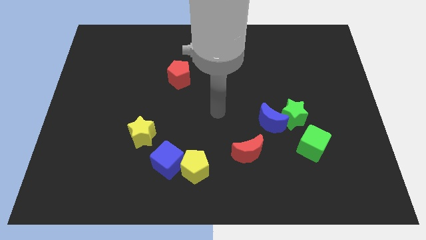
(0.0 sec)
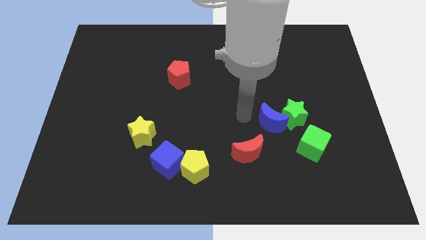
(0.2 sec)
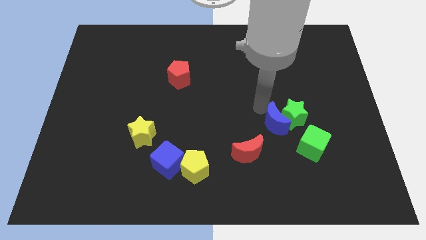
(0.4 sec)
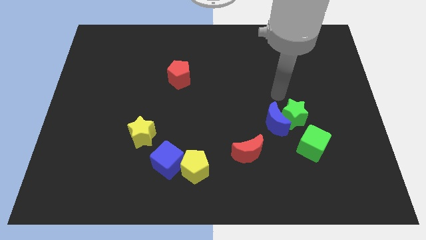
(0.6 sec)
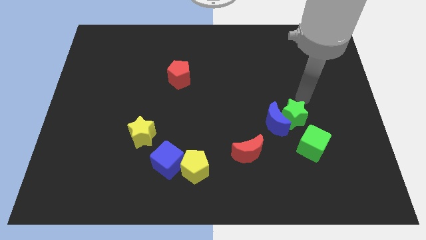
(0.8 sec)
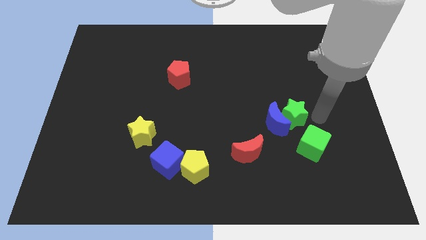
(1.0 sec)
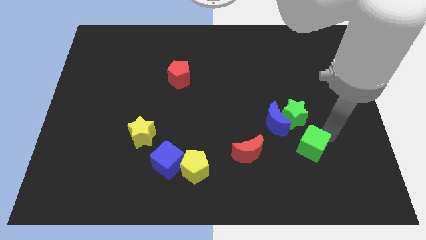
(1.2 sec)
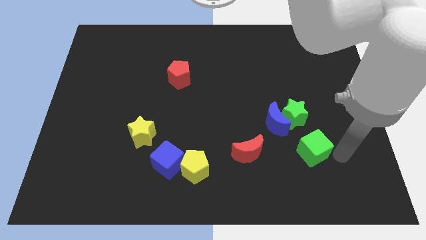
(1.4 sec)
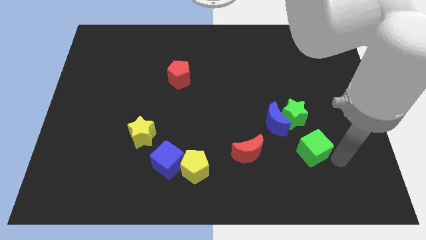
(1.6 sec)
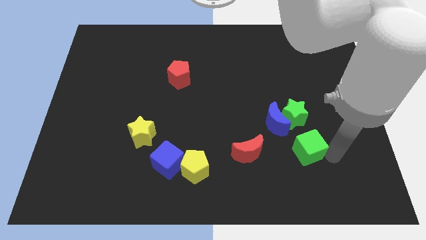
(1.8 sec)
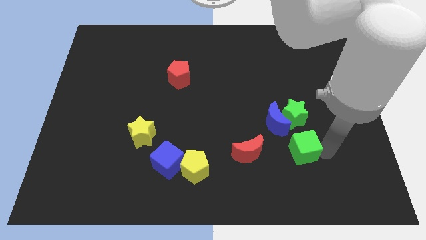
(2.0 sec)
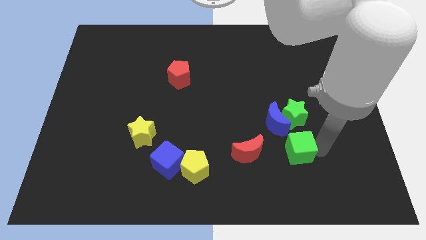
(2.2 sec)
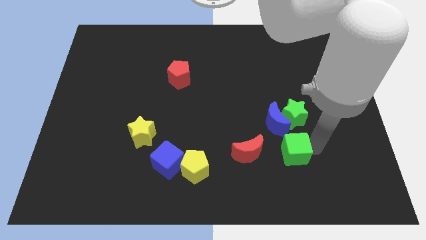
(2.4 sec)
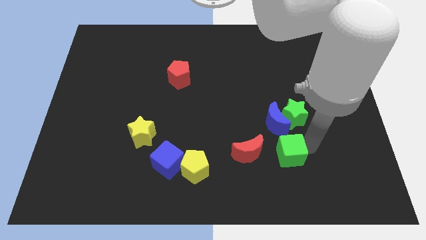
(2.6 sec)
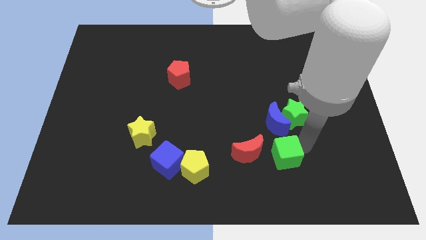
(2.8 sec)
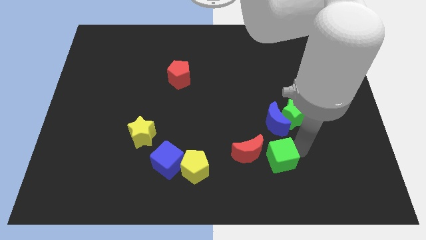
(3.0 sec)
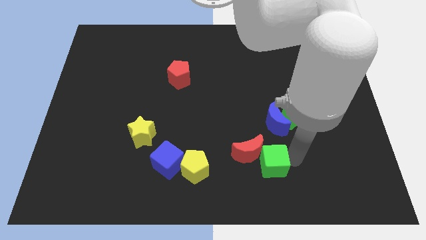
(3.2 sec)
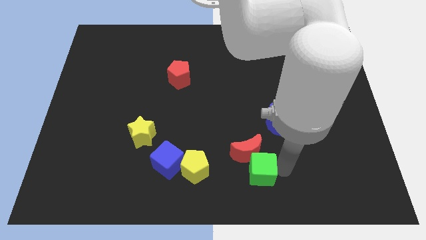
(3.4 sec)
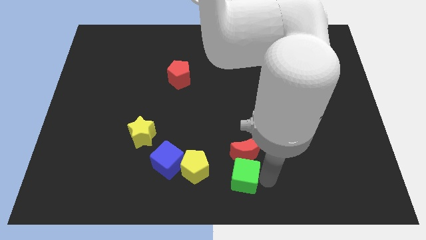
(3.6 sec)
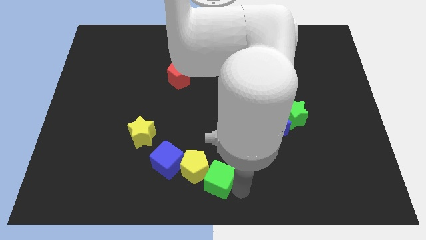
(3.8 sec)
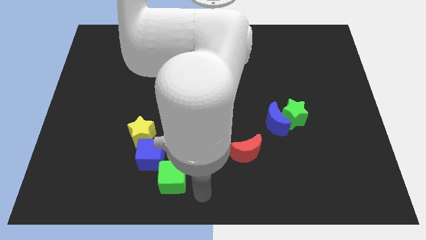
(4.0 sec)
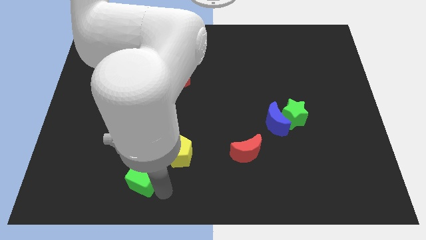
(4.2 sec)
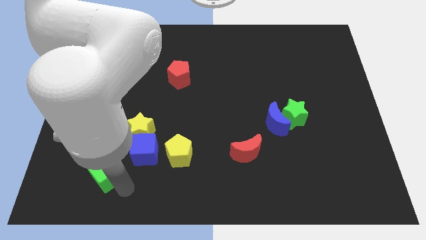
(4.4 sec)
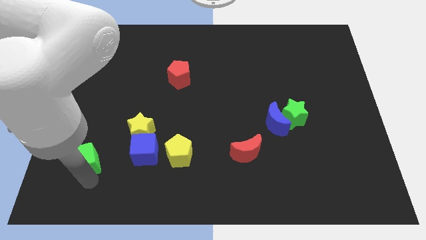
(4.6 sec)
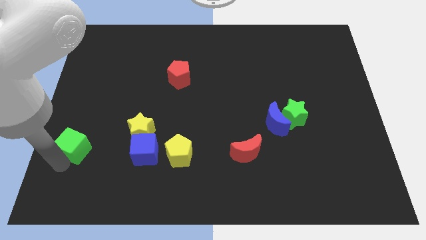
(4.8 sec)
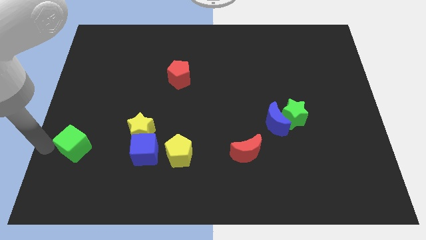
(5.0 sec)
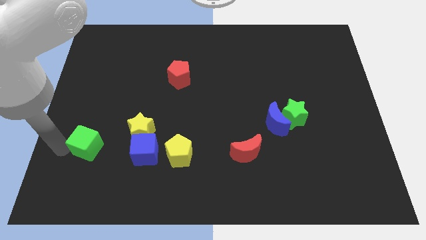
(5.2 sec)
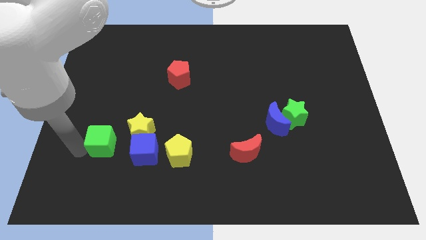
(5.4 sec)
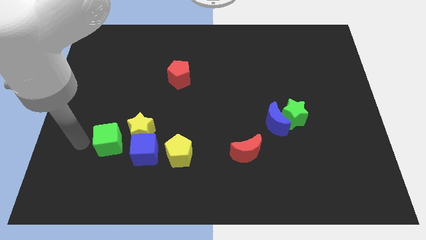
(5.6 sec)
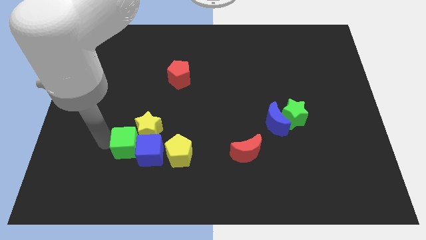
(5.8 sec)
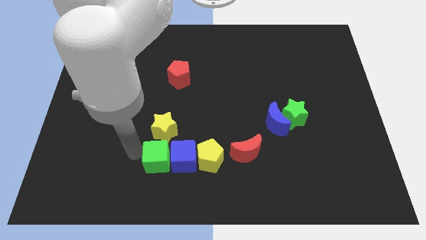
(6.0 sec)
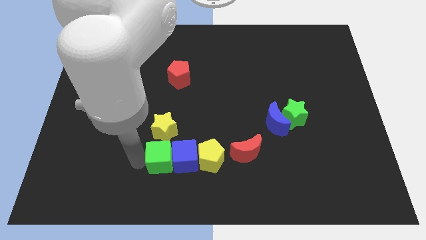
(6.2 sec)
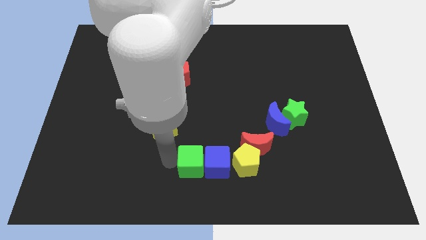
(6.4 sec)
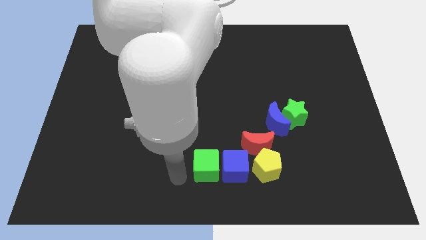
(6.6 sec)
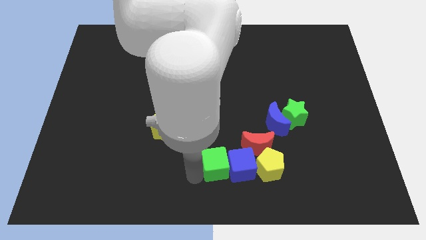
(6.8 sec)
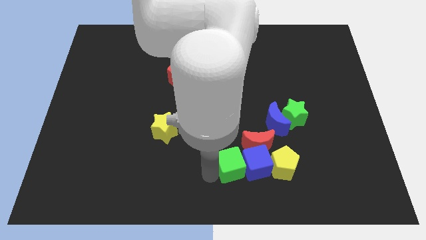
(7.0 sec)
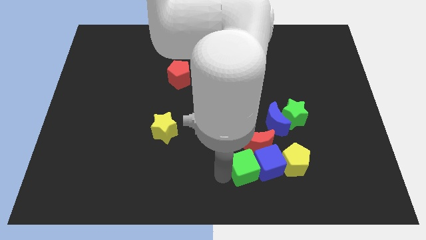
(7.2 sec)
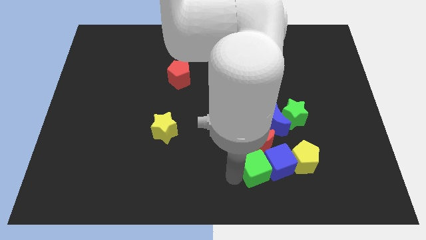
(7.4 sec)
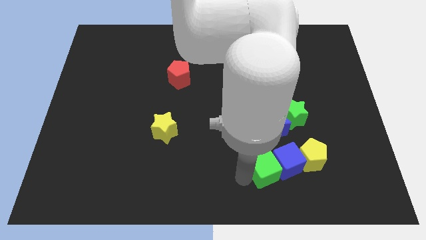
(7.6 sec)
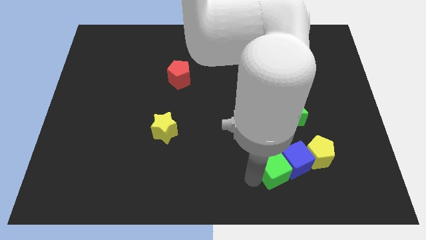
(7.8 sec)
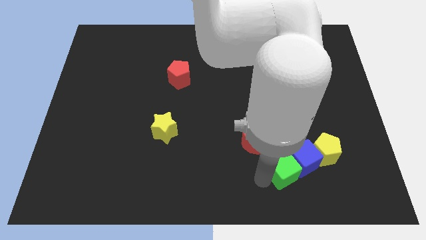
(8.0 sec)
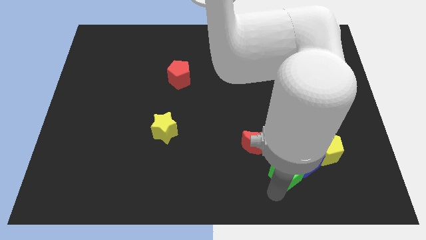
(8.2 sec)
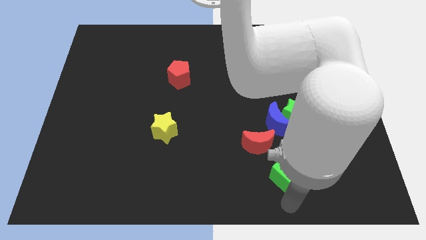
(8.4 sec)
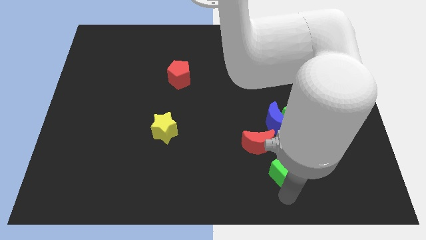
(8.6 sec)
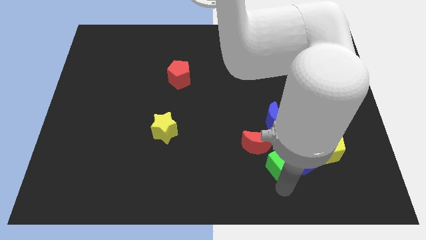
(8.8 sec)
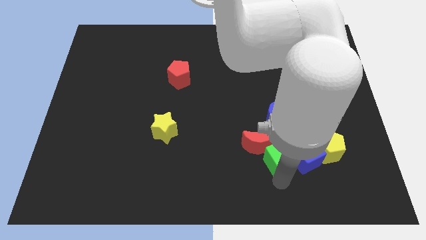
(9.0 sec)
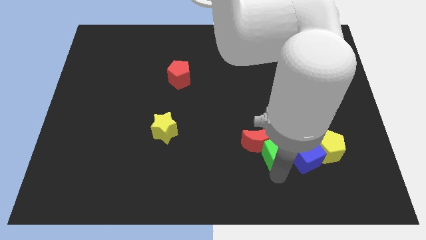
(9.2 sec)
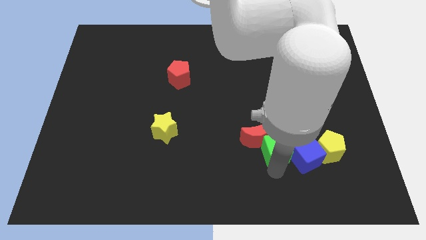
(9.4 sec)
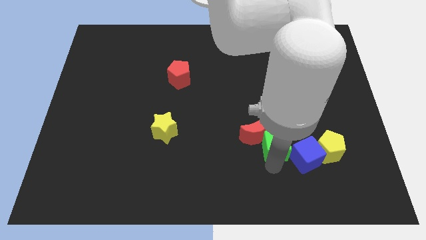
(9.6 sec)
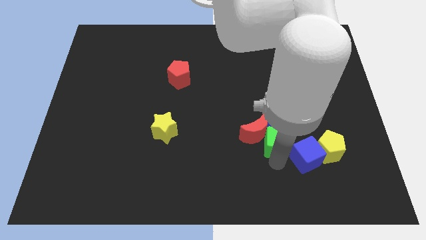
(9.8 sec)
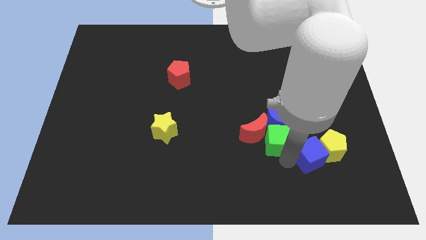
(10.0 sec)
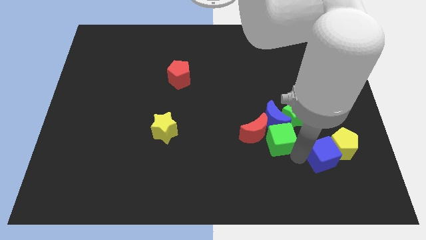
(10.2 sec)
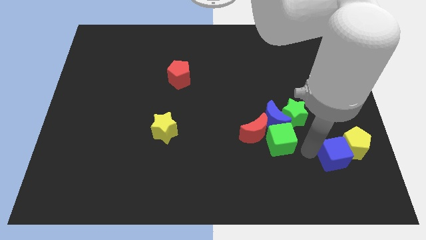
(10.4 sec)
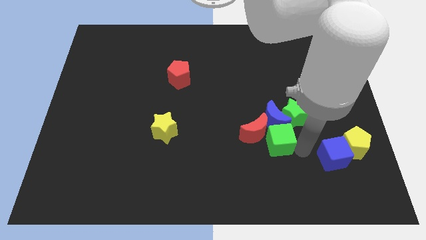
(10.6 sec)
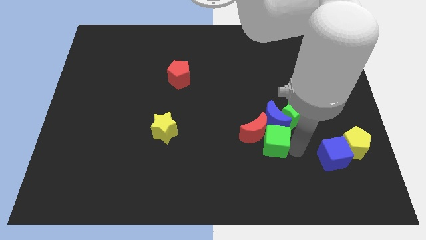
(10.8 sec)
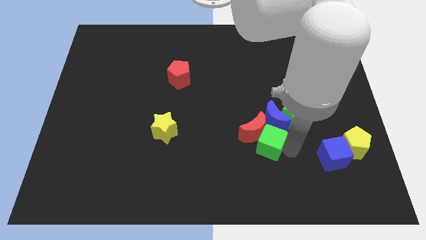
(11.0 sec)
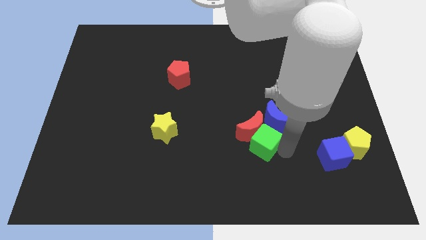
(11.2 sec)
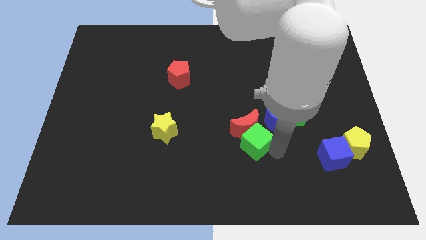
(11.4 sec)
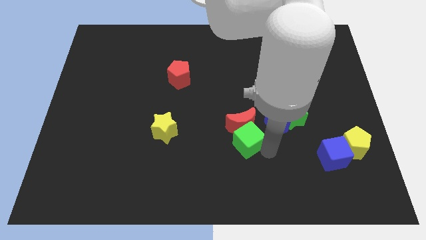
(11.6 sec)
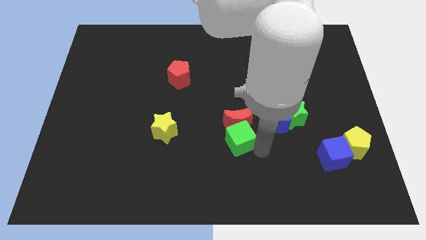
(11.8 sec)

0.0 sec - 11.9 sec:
push the green cube to the center
